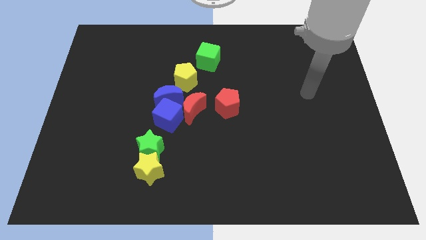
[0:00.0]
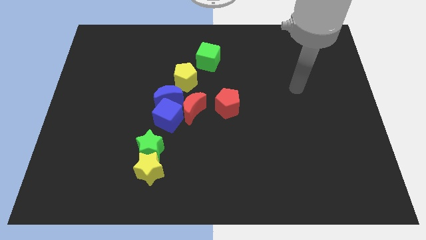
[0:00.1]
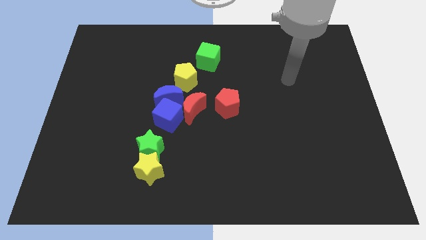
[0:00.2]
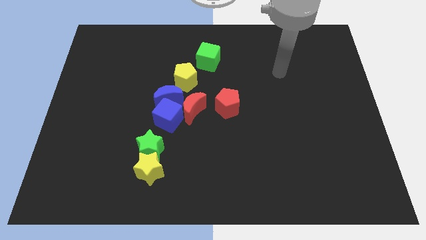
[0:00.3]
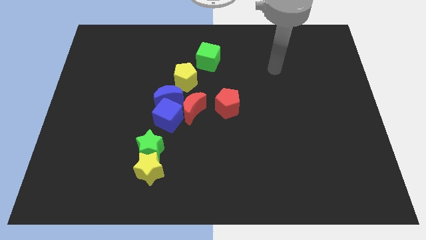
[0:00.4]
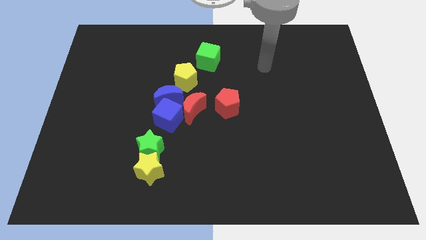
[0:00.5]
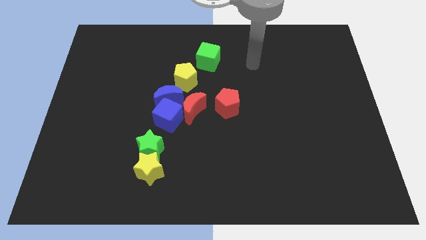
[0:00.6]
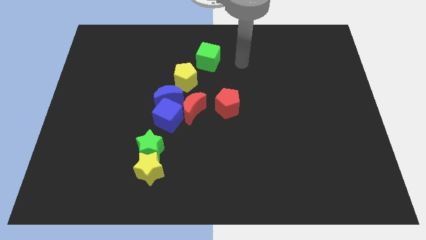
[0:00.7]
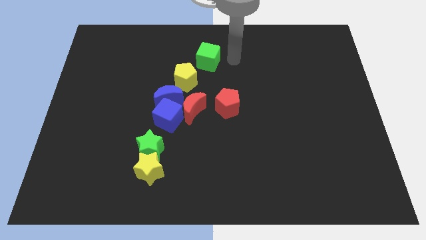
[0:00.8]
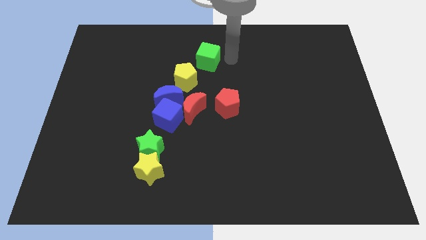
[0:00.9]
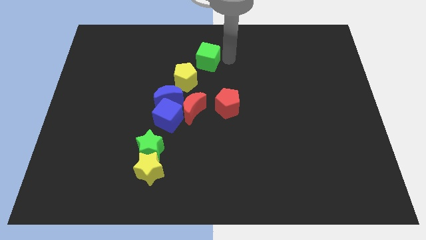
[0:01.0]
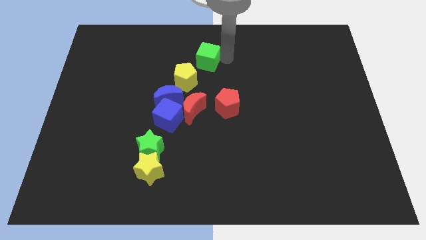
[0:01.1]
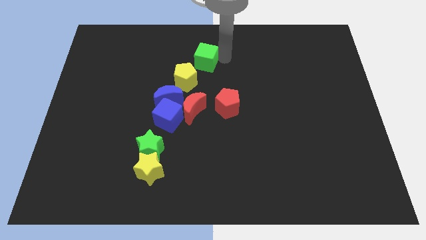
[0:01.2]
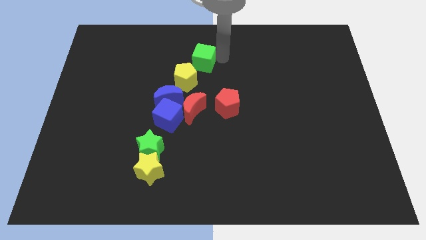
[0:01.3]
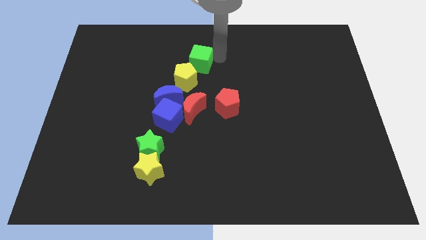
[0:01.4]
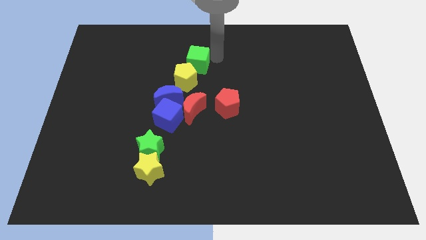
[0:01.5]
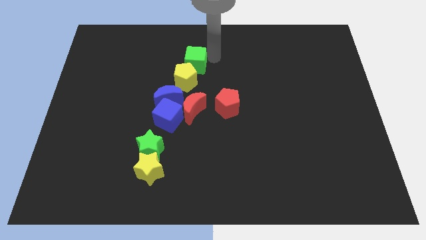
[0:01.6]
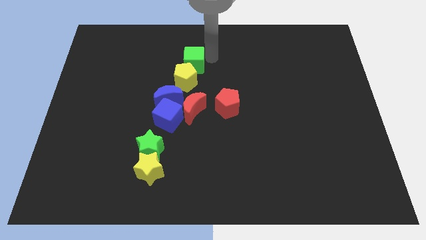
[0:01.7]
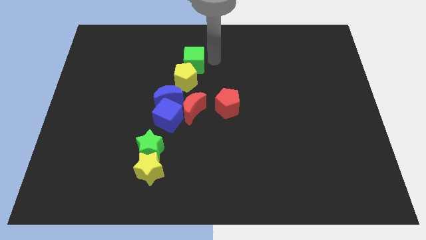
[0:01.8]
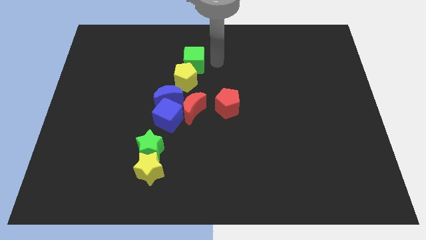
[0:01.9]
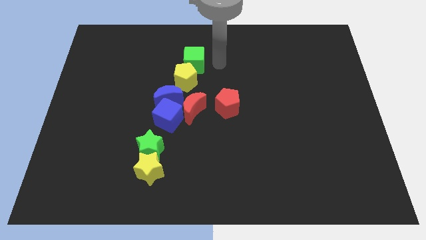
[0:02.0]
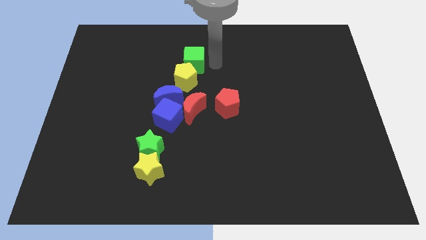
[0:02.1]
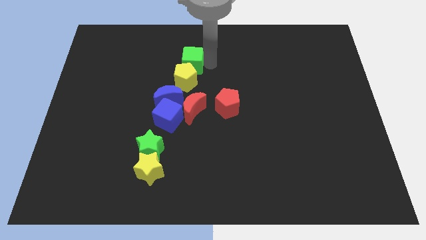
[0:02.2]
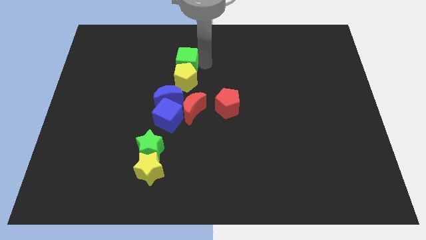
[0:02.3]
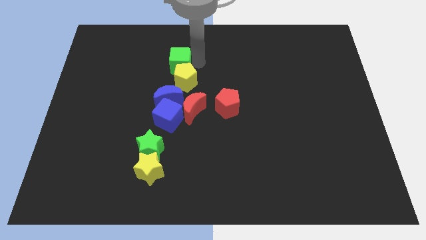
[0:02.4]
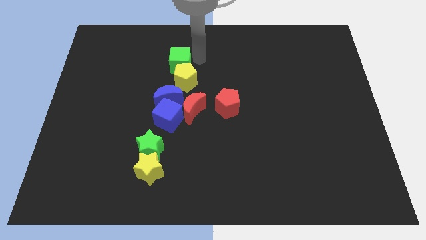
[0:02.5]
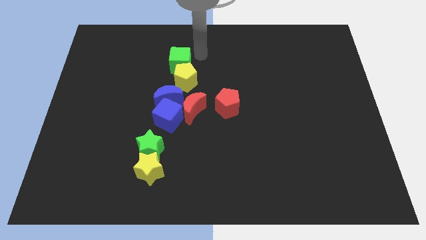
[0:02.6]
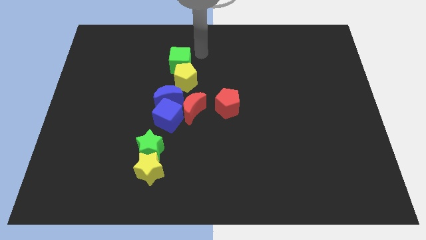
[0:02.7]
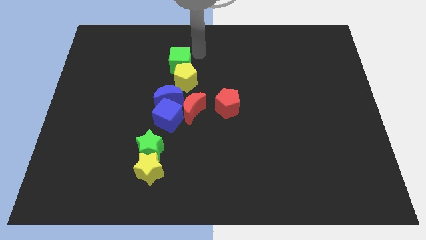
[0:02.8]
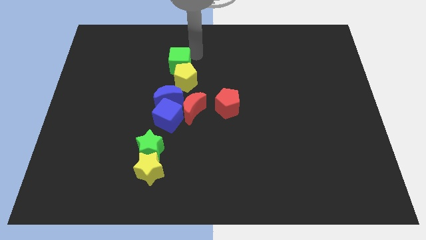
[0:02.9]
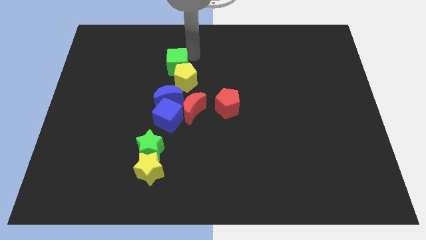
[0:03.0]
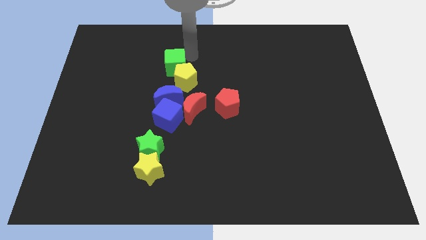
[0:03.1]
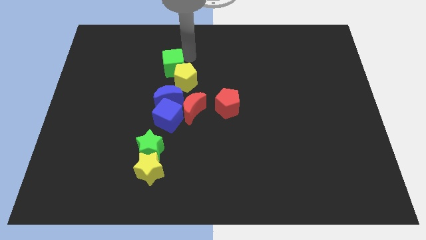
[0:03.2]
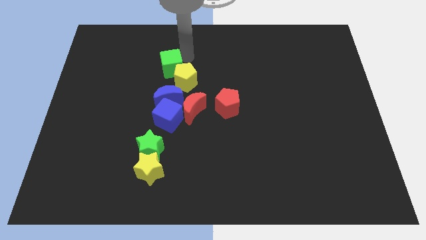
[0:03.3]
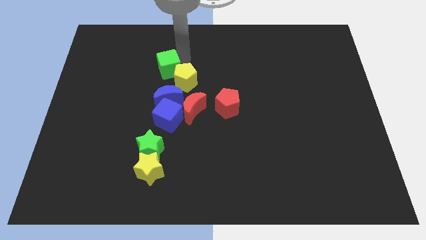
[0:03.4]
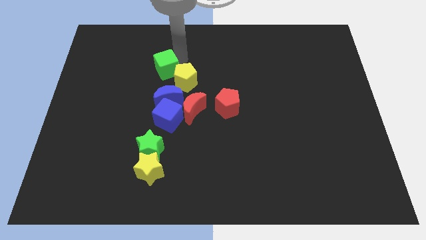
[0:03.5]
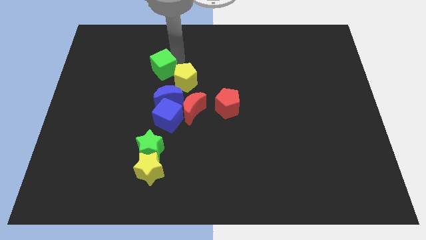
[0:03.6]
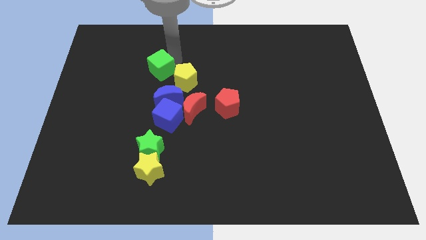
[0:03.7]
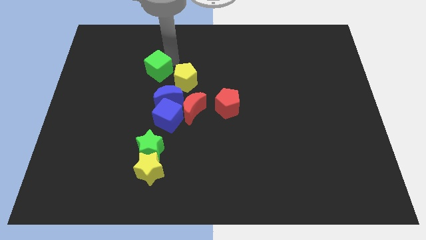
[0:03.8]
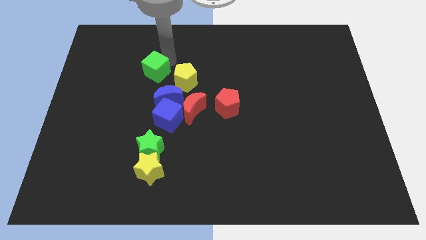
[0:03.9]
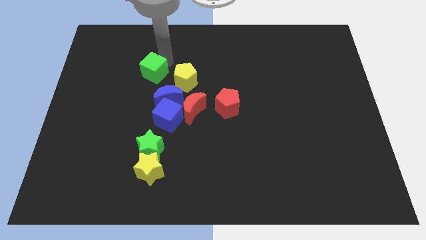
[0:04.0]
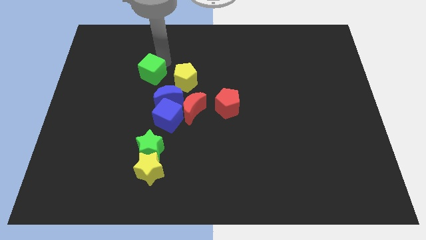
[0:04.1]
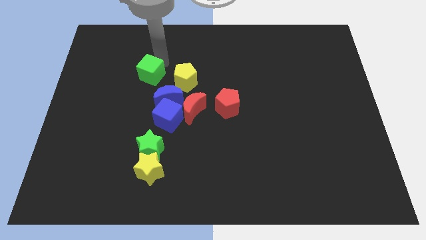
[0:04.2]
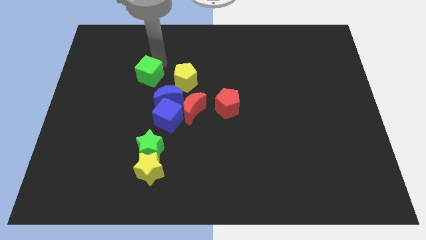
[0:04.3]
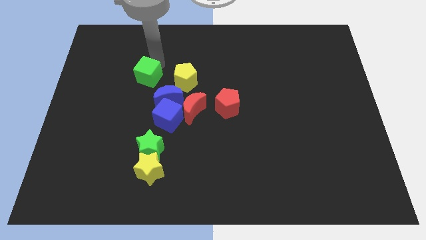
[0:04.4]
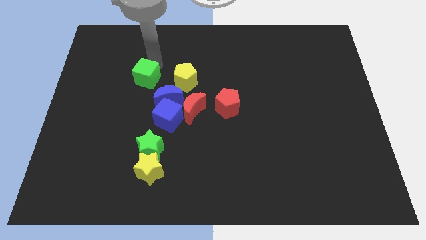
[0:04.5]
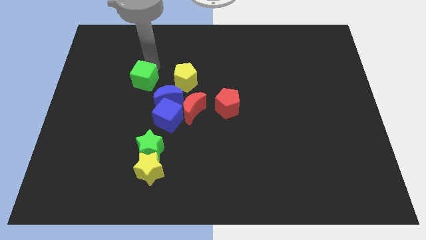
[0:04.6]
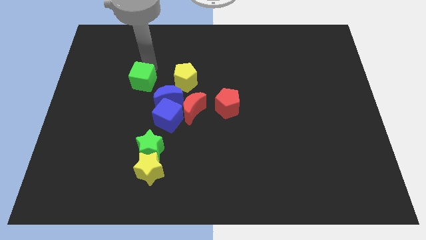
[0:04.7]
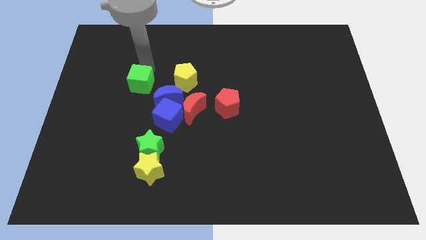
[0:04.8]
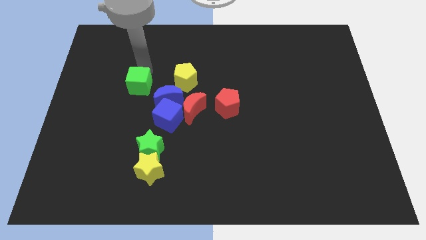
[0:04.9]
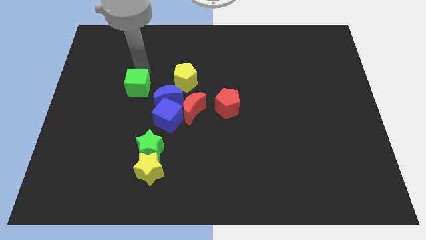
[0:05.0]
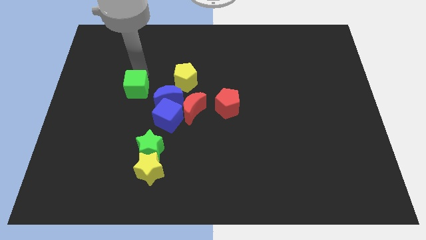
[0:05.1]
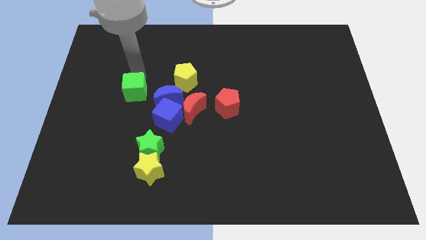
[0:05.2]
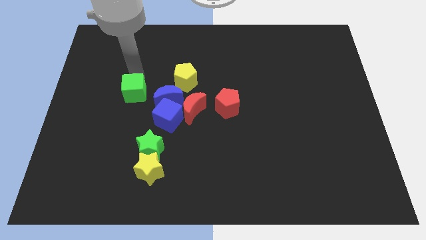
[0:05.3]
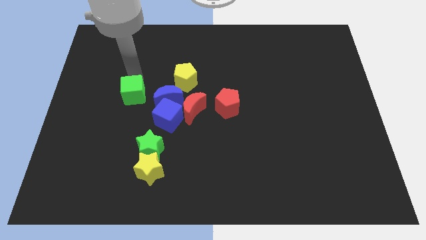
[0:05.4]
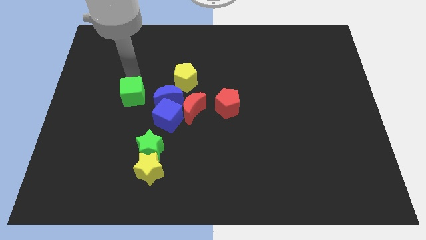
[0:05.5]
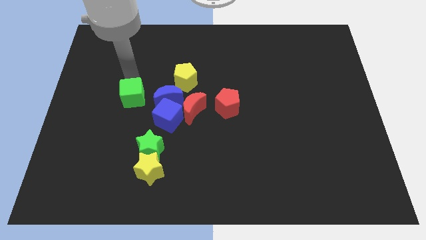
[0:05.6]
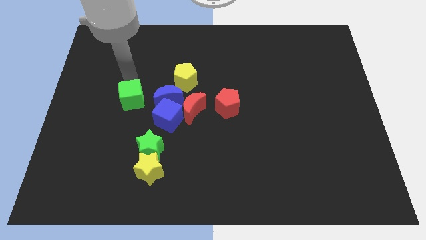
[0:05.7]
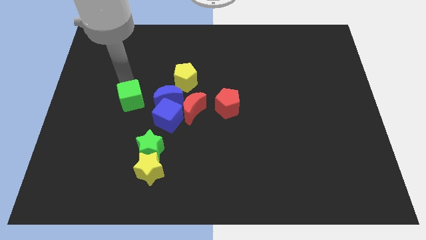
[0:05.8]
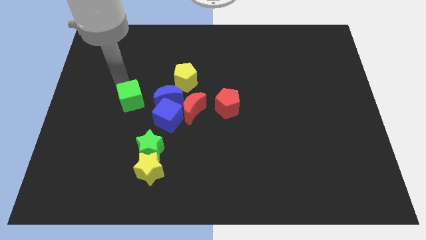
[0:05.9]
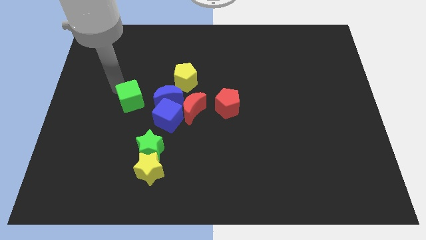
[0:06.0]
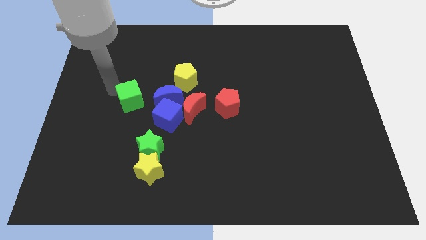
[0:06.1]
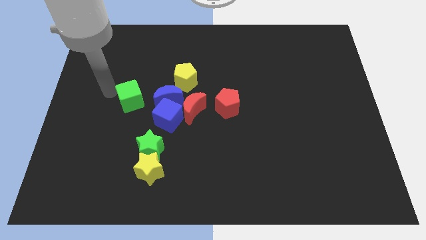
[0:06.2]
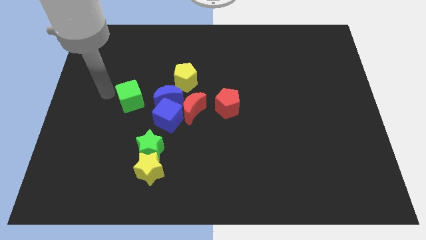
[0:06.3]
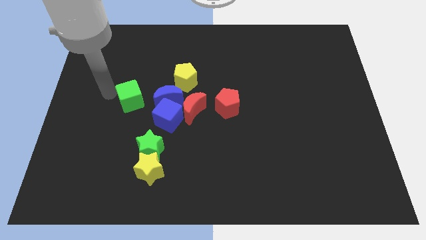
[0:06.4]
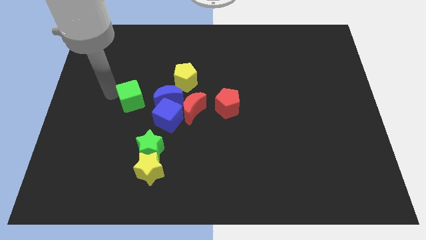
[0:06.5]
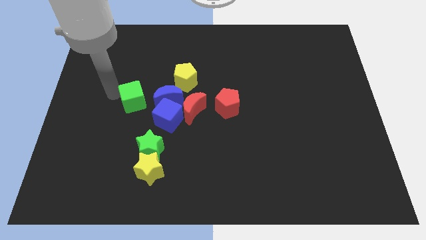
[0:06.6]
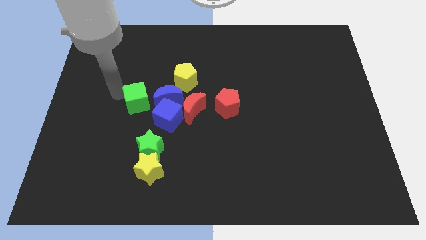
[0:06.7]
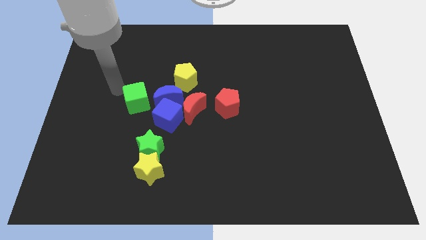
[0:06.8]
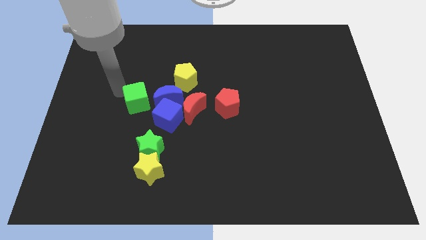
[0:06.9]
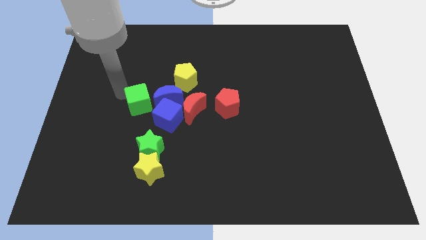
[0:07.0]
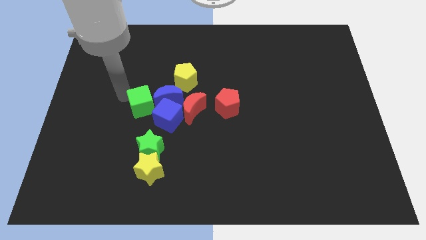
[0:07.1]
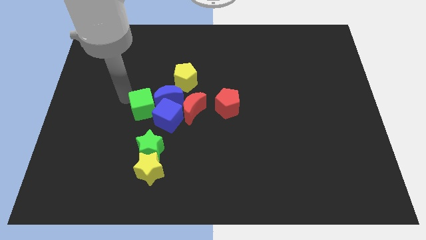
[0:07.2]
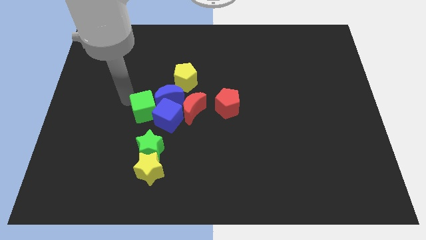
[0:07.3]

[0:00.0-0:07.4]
move the green cube towards the blue cube

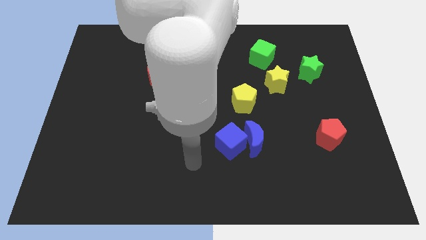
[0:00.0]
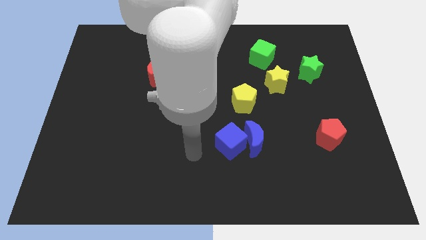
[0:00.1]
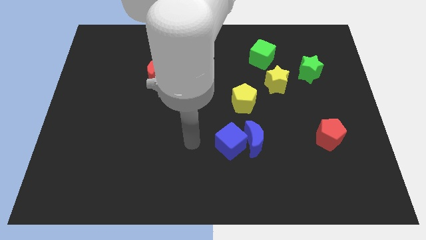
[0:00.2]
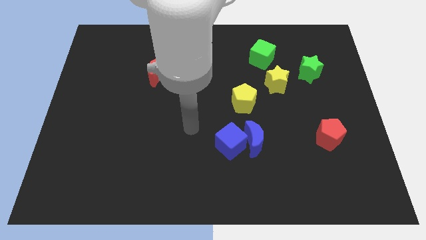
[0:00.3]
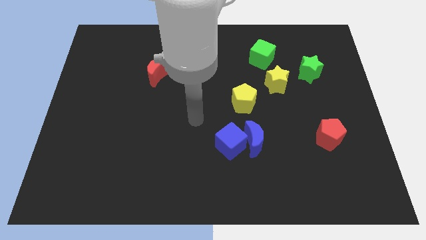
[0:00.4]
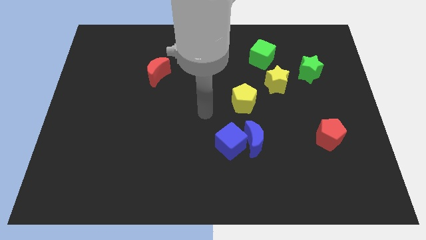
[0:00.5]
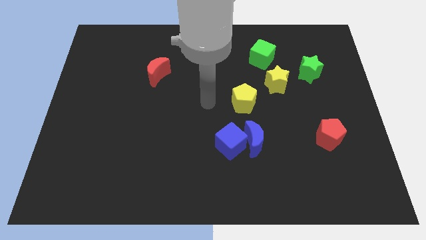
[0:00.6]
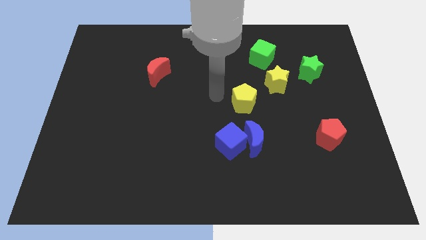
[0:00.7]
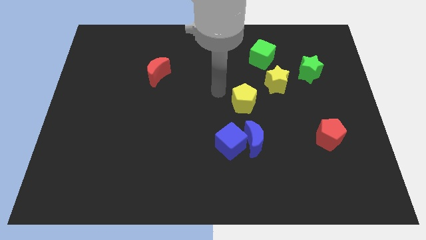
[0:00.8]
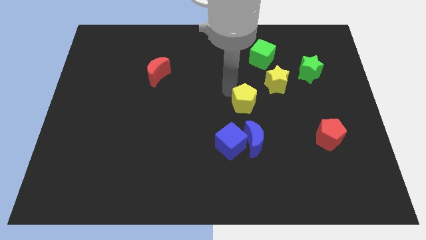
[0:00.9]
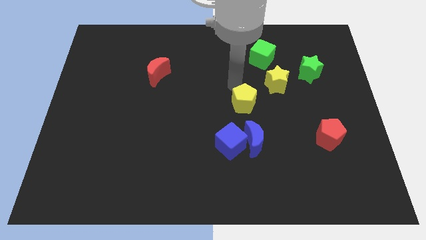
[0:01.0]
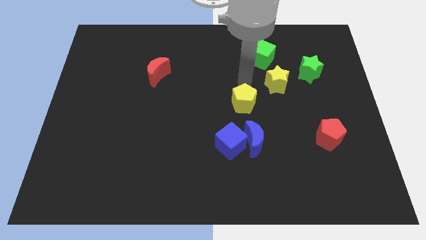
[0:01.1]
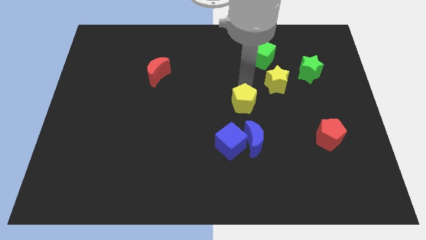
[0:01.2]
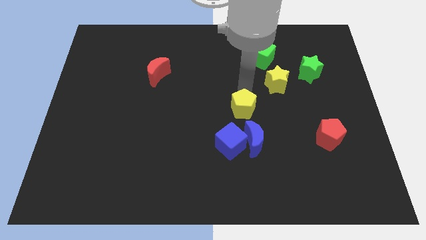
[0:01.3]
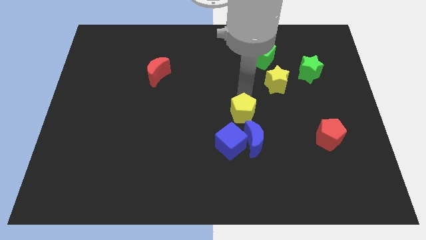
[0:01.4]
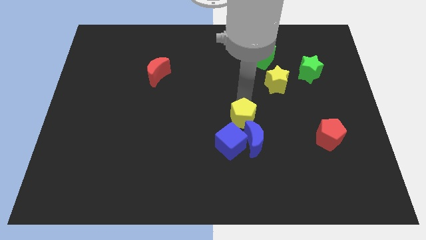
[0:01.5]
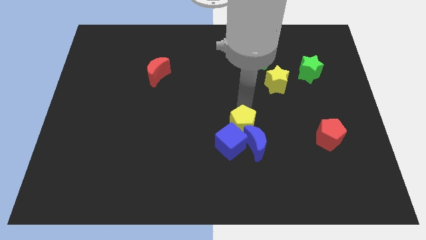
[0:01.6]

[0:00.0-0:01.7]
put the yellow pentagon to the blue cube
